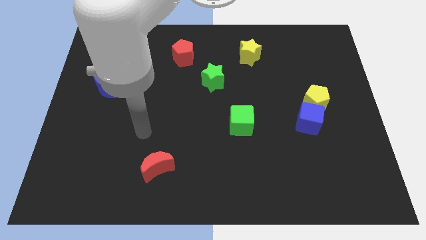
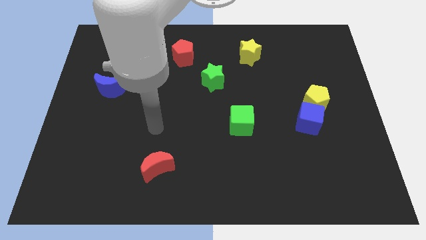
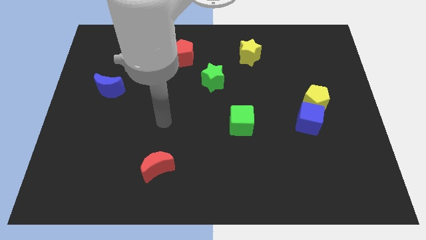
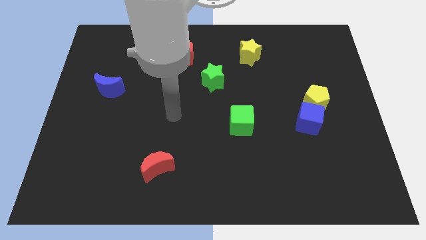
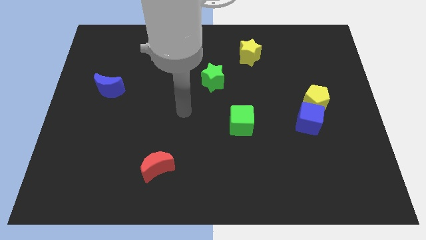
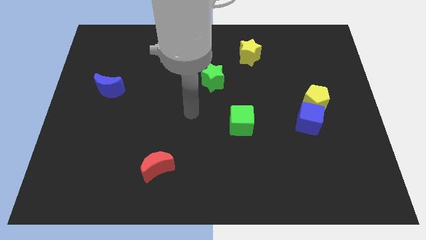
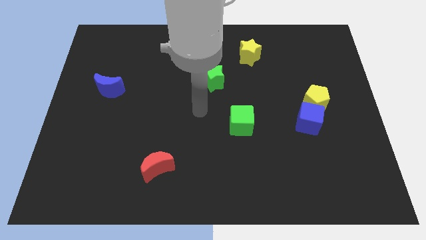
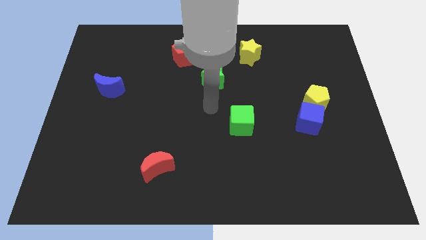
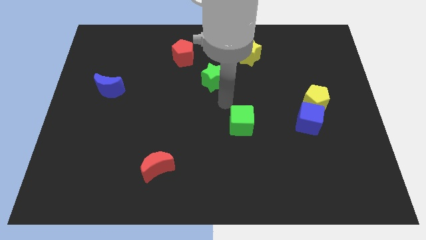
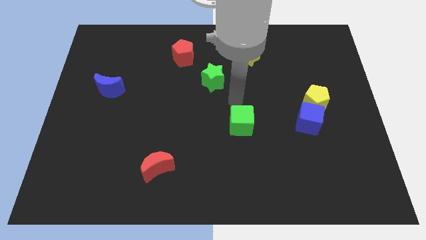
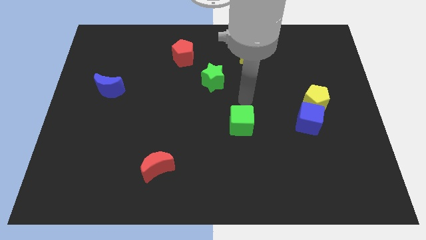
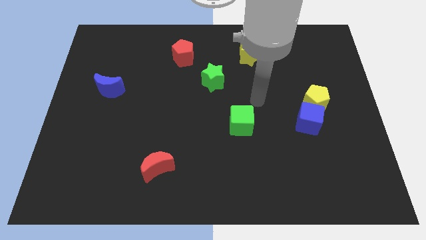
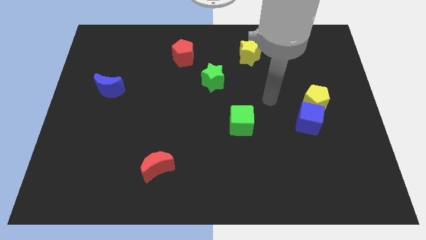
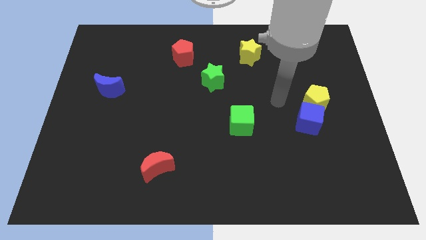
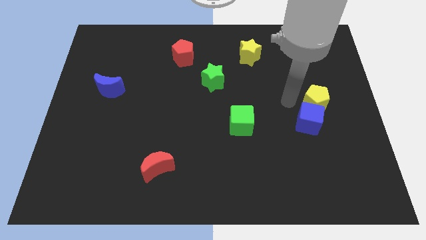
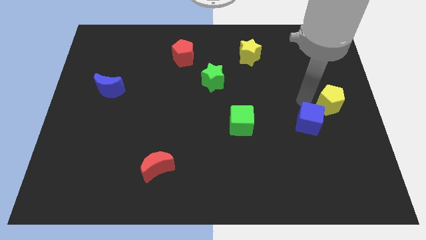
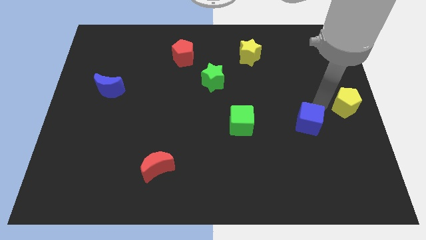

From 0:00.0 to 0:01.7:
pull the blue cube apart from the yellow pentagon

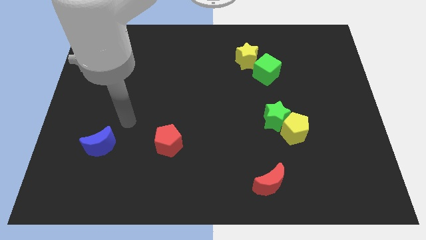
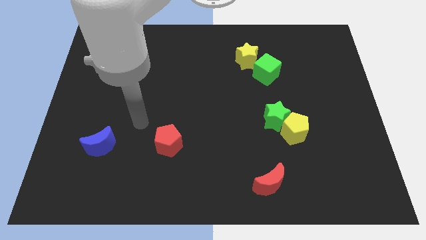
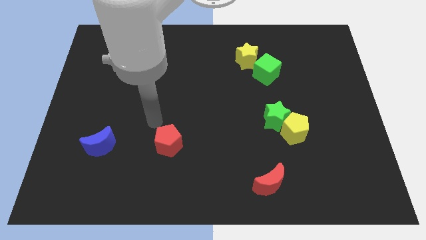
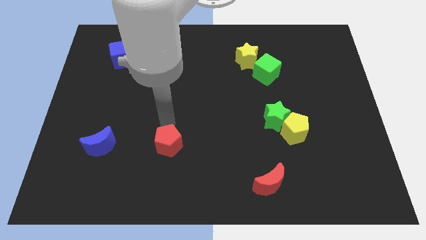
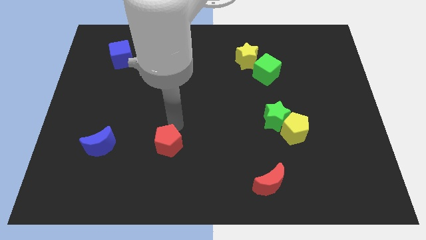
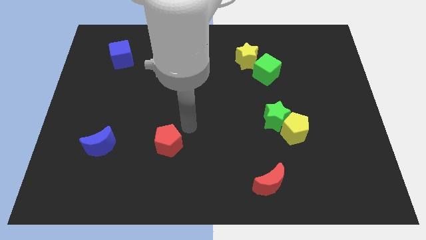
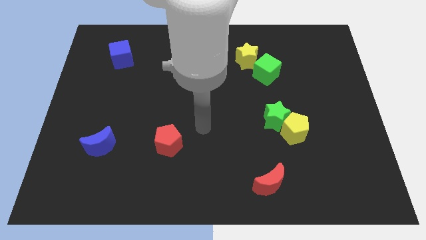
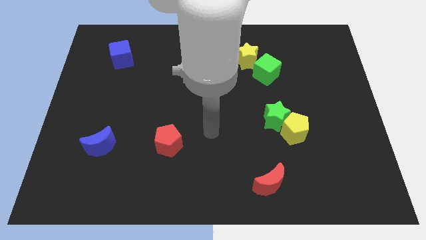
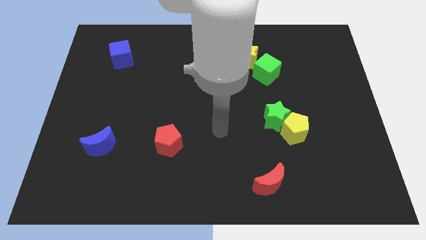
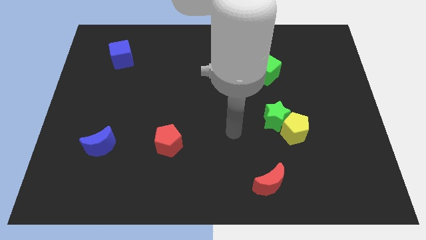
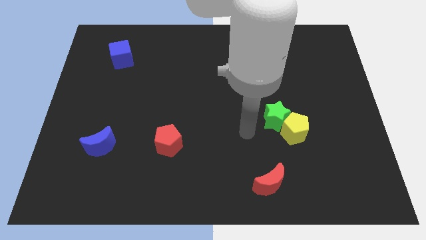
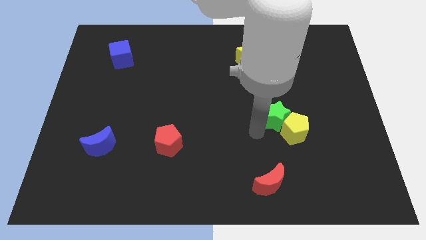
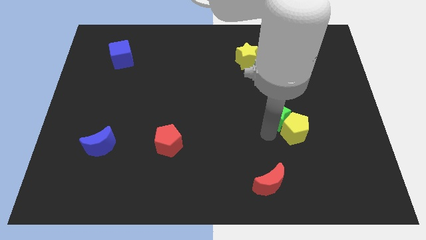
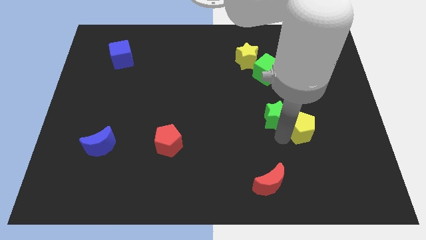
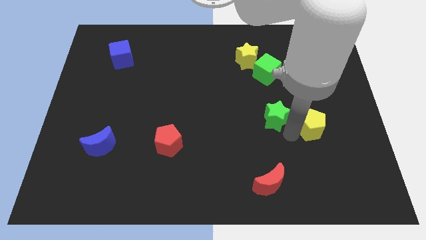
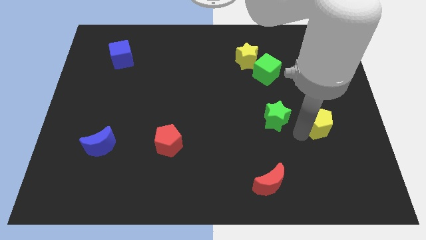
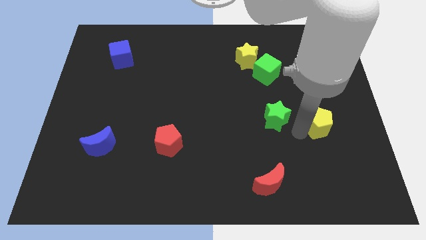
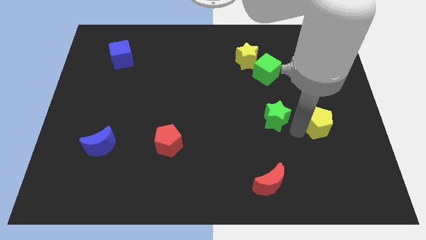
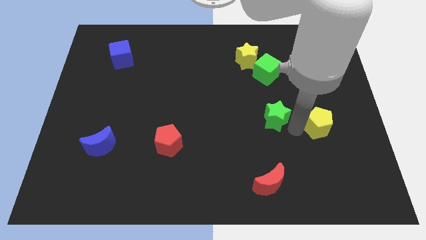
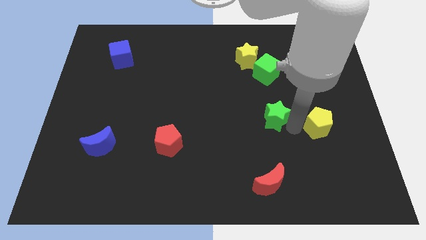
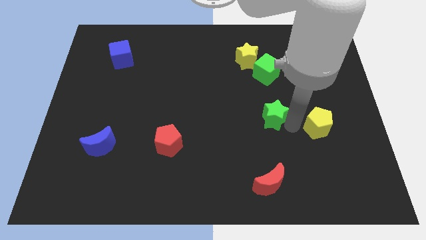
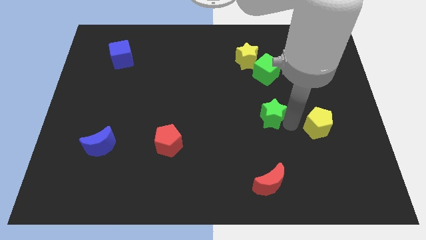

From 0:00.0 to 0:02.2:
move the green star away from the yellow pentagon

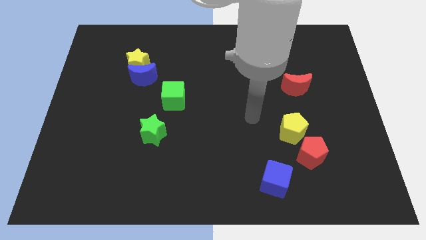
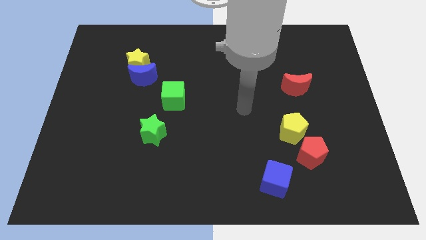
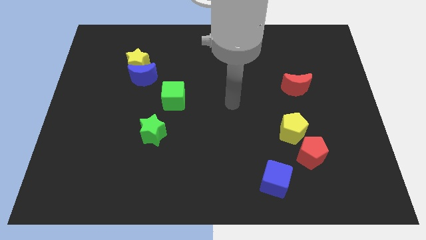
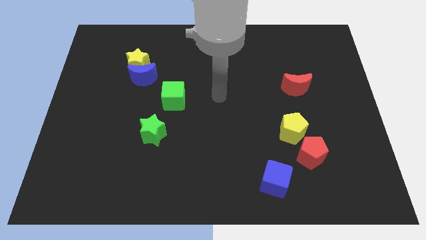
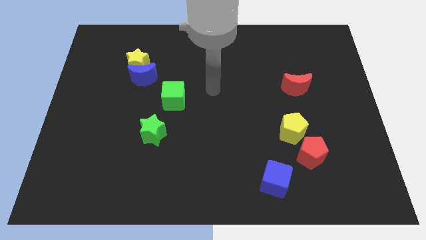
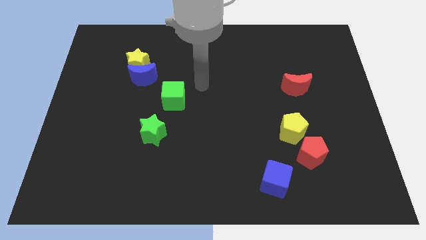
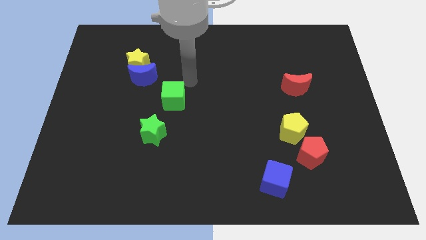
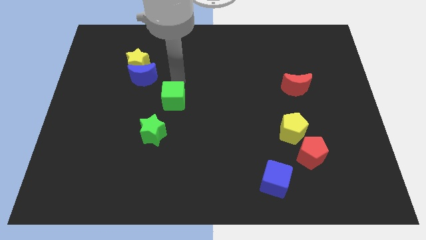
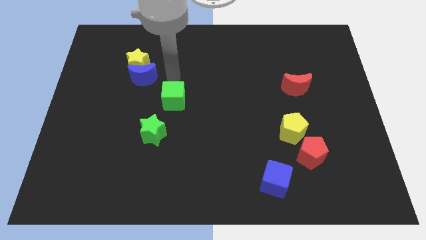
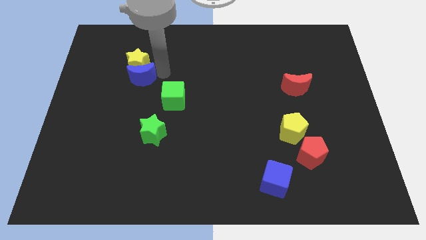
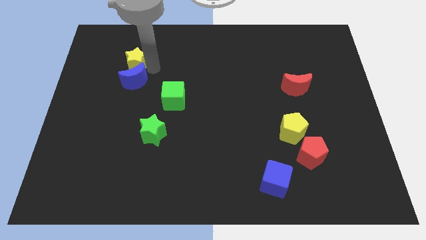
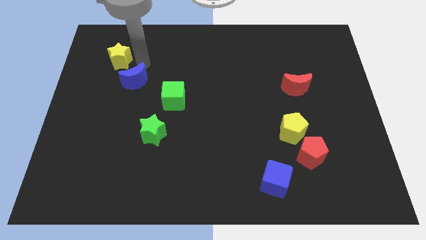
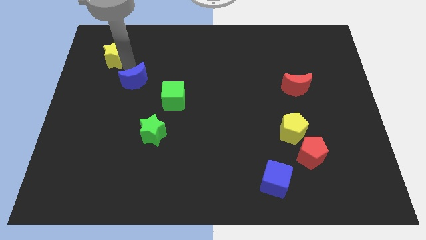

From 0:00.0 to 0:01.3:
separate the blue moon from the yellow star

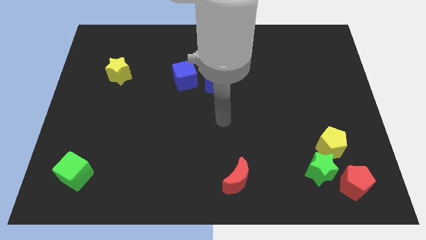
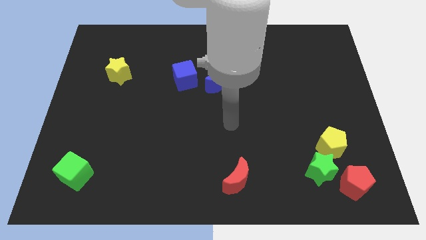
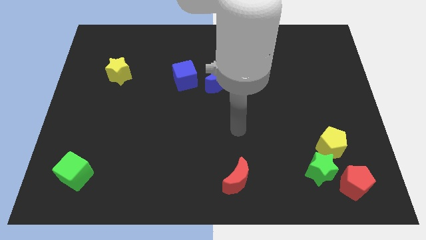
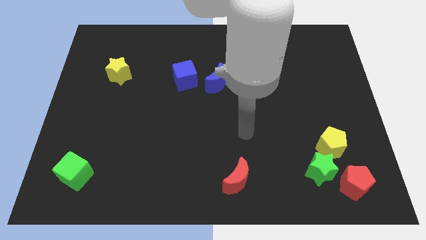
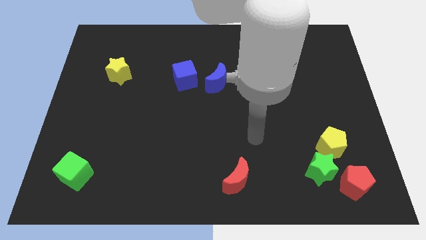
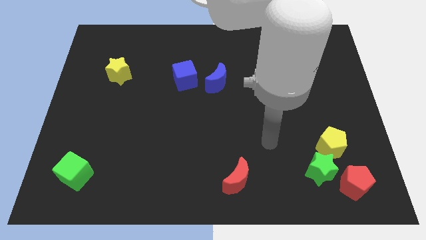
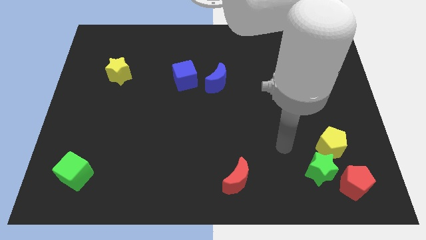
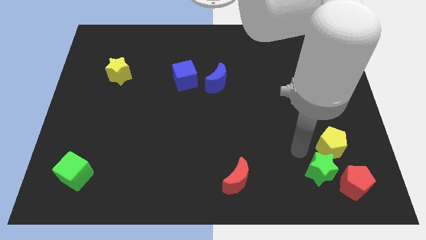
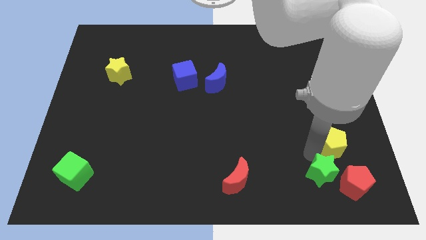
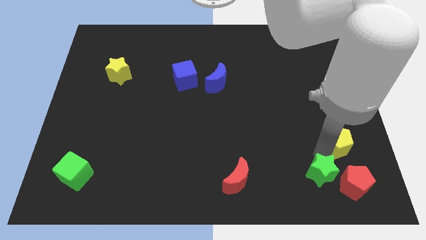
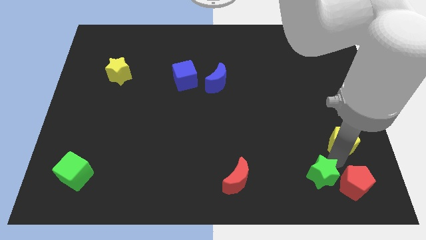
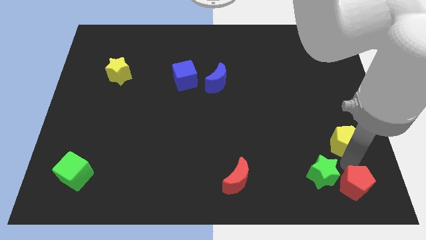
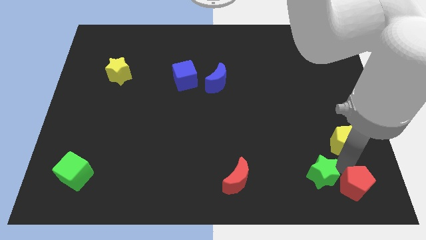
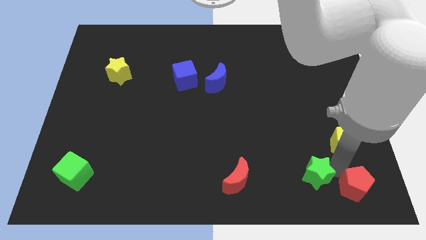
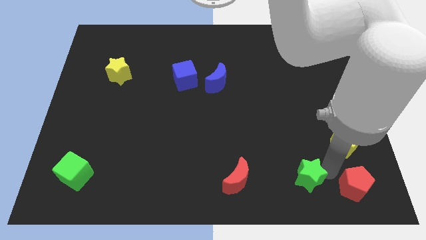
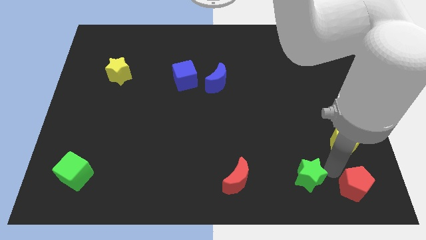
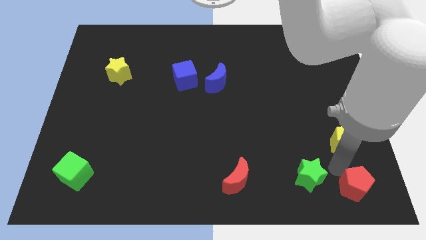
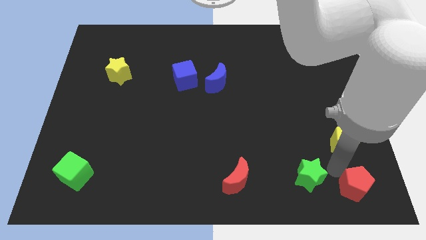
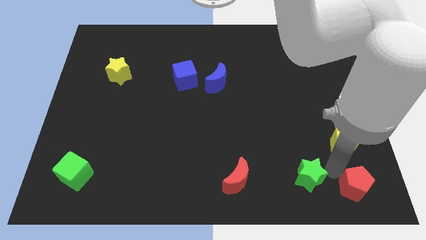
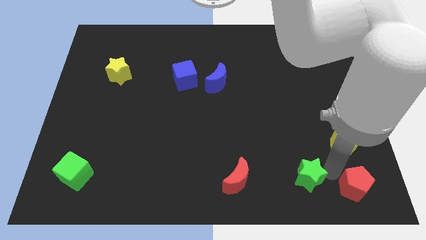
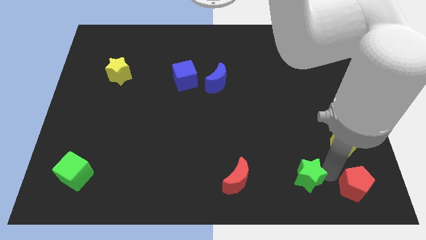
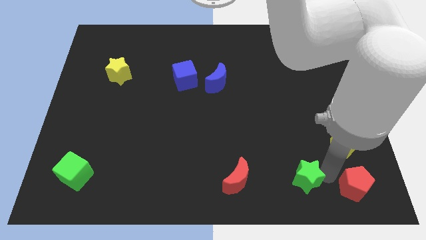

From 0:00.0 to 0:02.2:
pull the green star apart from the yellow pentagon and red pentagon

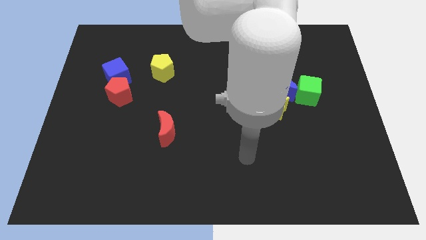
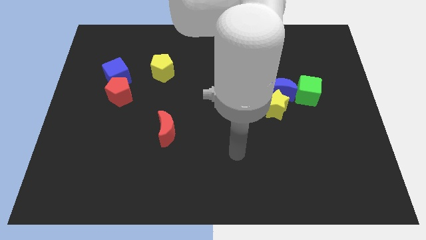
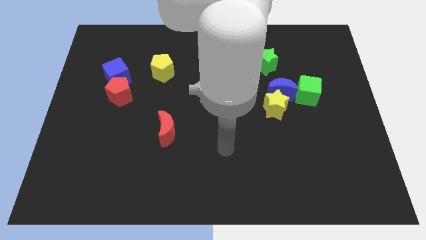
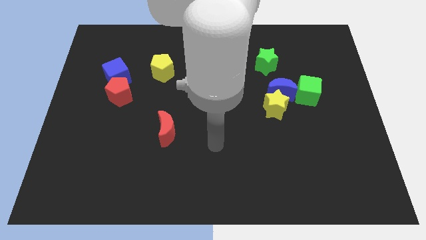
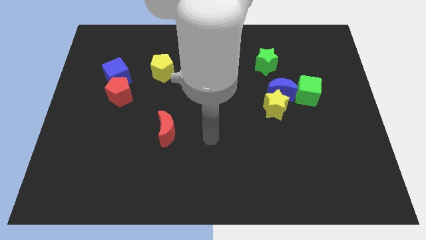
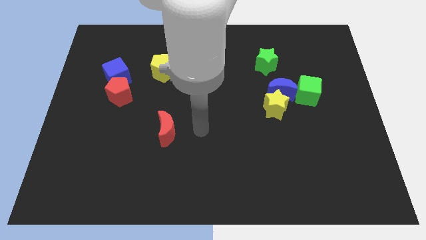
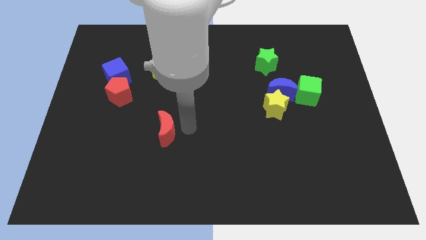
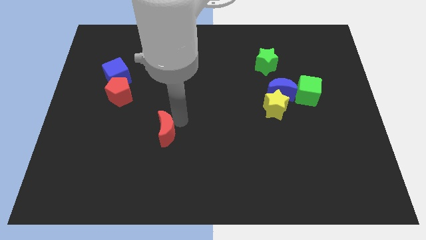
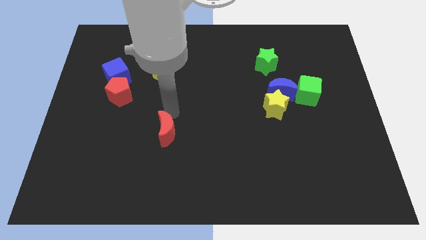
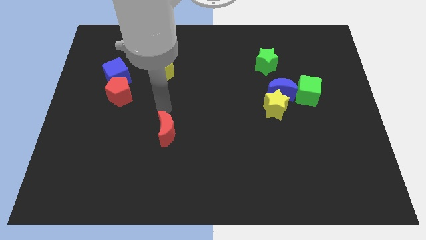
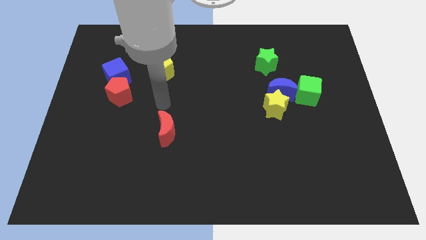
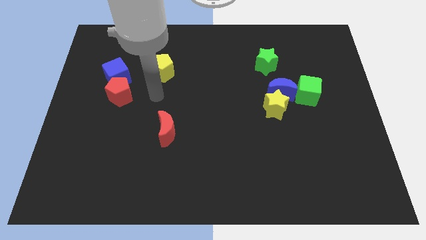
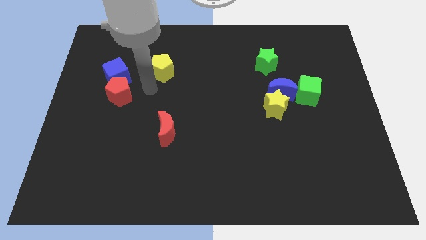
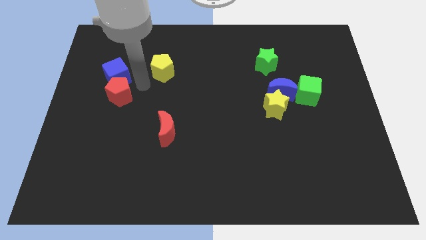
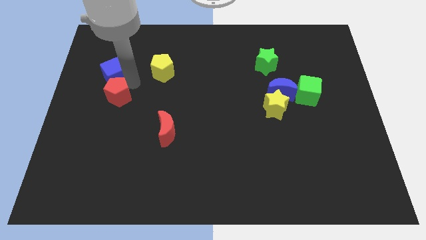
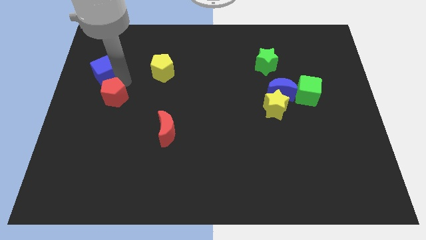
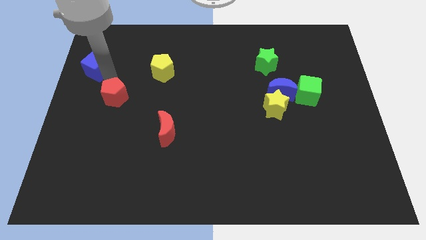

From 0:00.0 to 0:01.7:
pull the red pentagon apart from the blue cube

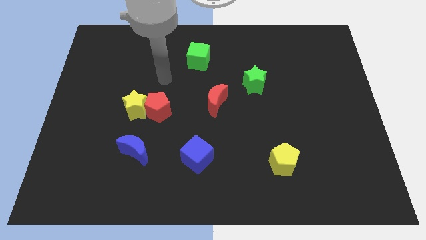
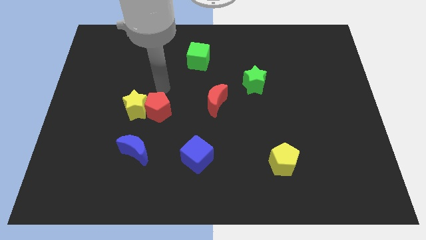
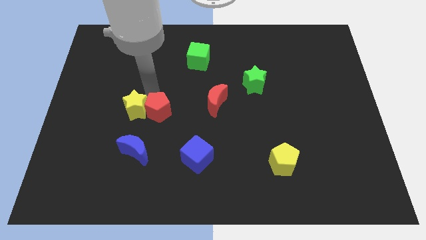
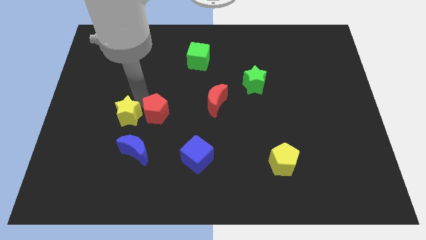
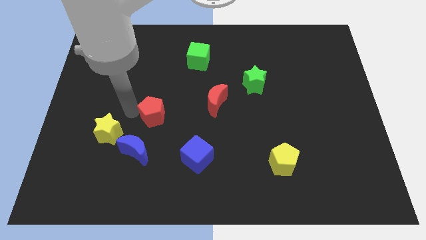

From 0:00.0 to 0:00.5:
pull the red pentagon apart from the yellow star
